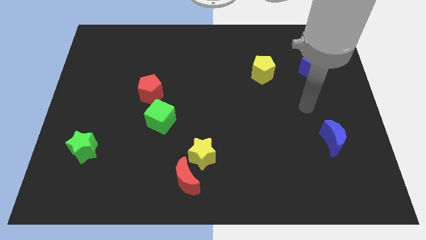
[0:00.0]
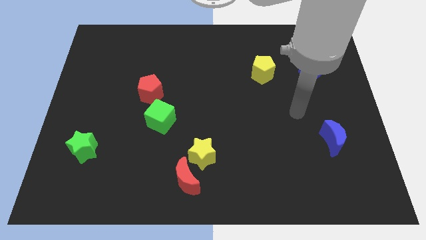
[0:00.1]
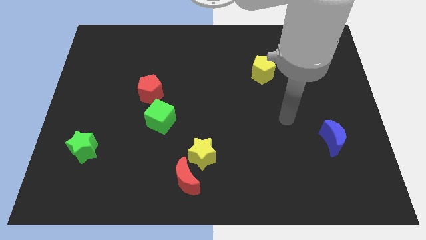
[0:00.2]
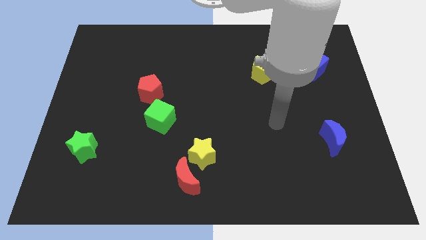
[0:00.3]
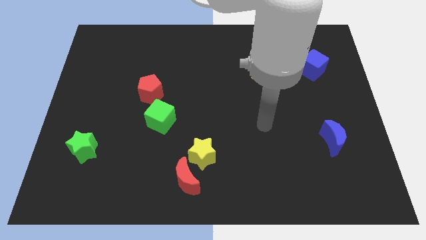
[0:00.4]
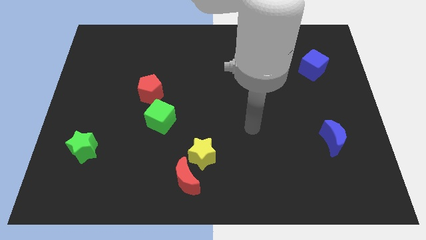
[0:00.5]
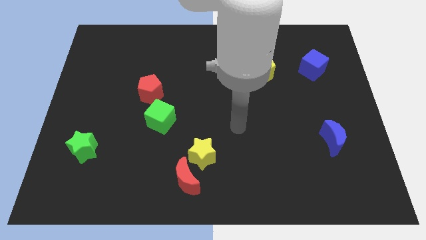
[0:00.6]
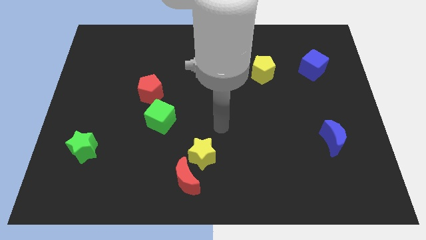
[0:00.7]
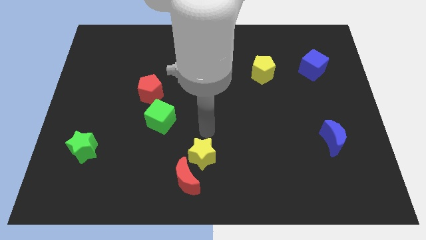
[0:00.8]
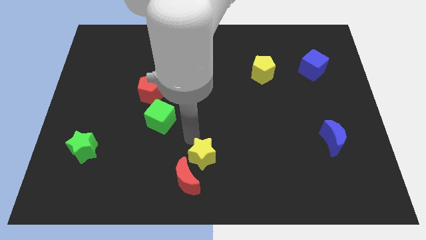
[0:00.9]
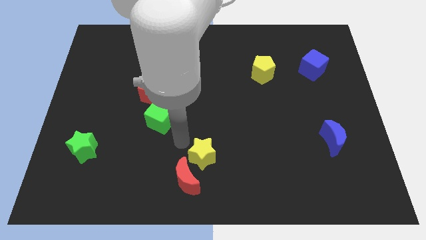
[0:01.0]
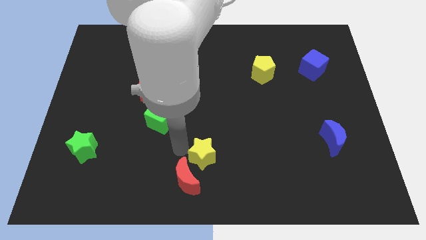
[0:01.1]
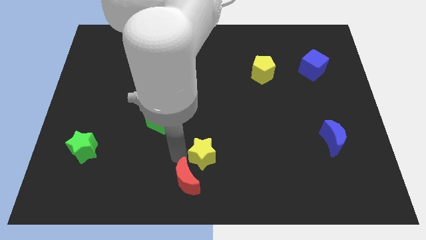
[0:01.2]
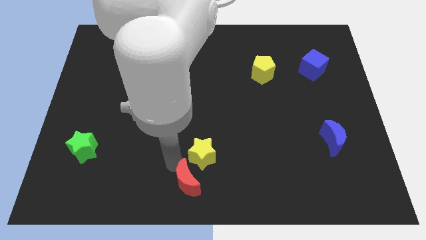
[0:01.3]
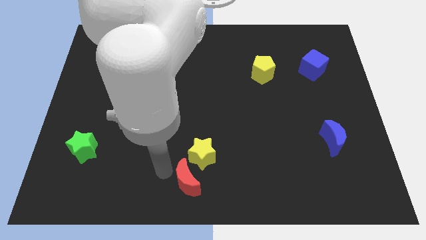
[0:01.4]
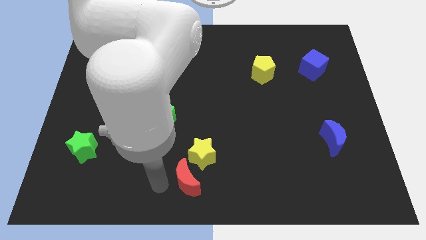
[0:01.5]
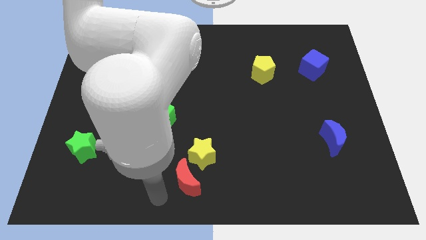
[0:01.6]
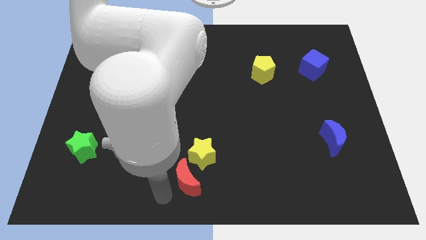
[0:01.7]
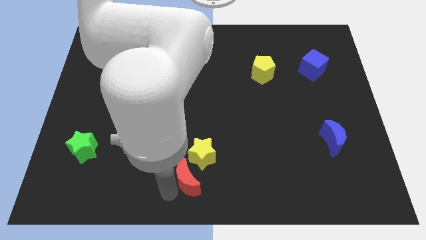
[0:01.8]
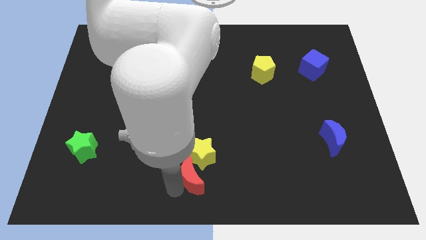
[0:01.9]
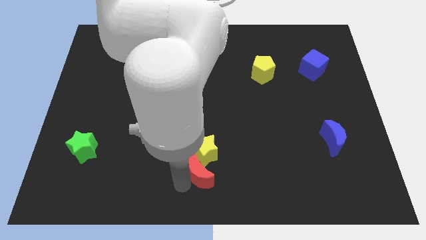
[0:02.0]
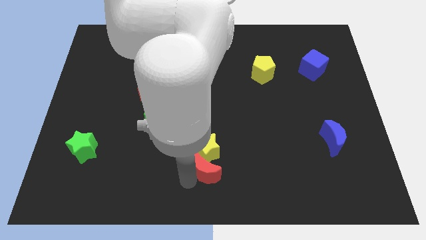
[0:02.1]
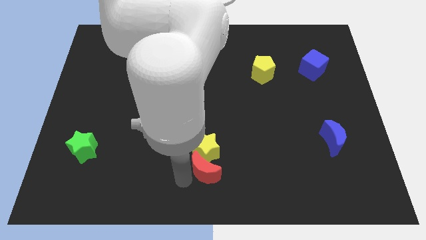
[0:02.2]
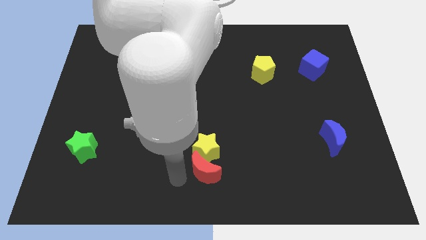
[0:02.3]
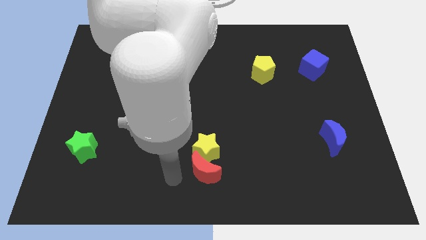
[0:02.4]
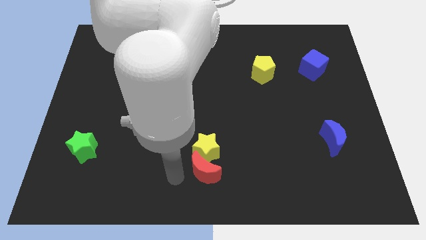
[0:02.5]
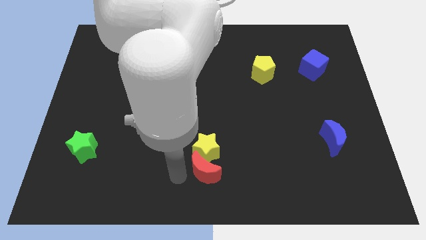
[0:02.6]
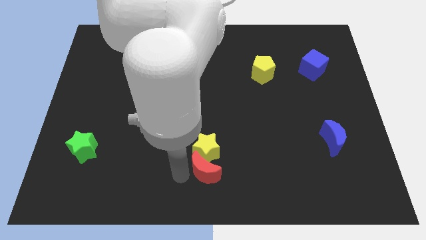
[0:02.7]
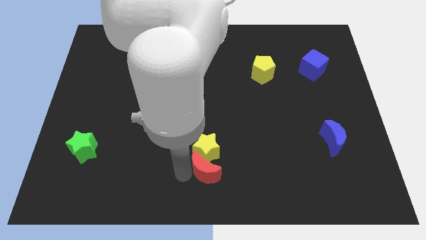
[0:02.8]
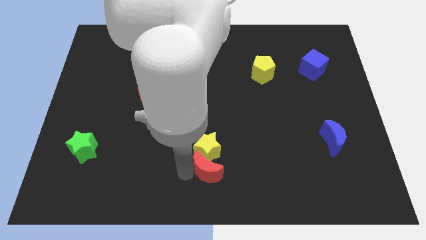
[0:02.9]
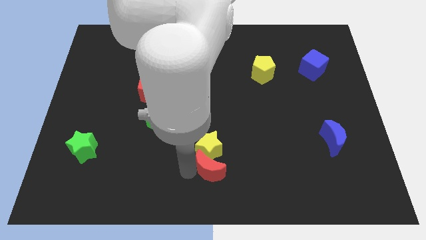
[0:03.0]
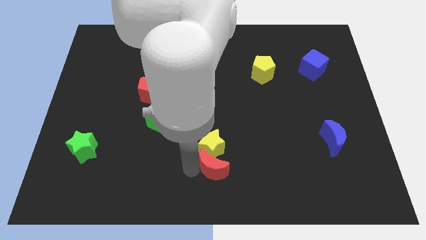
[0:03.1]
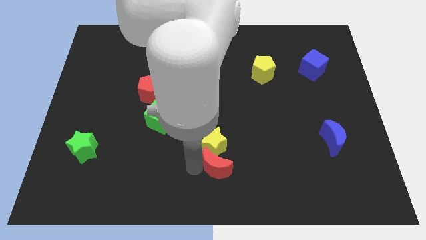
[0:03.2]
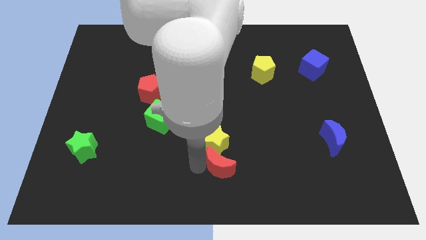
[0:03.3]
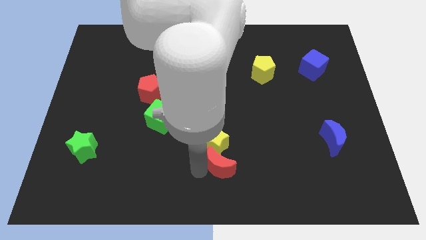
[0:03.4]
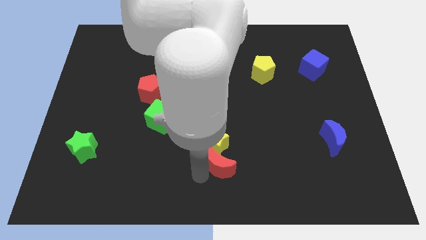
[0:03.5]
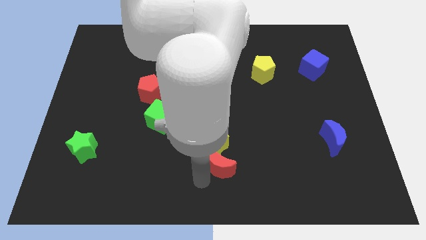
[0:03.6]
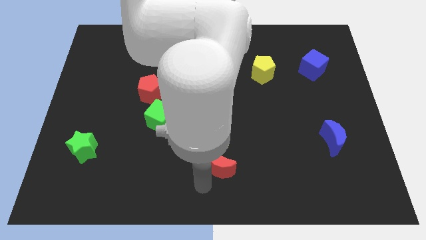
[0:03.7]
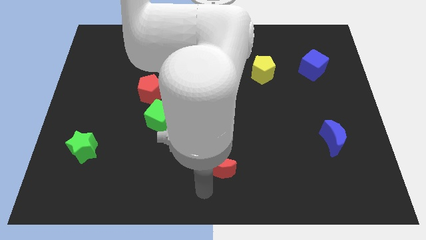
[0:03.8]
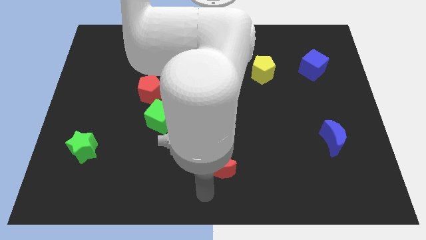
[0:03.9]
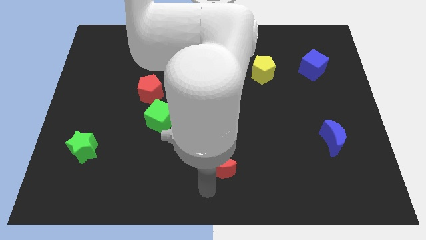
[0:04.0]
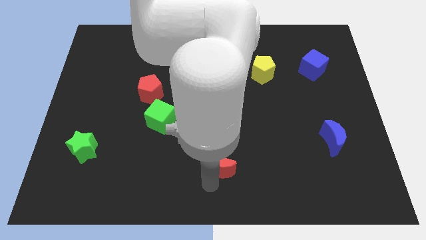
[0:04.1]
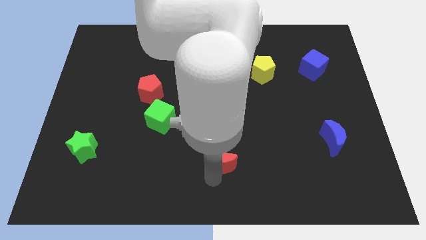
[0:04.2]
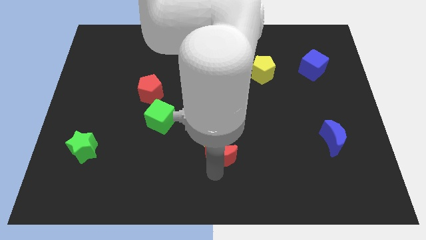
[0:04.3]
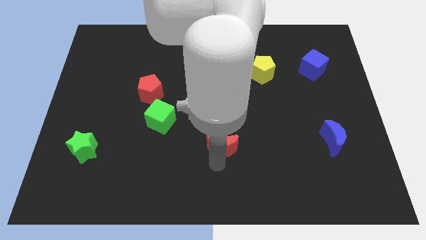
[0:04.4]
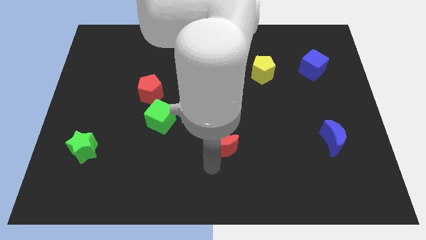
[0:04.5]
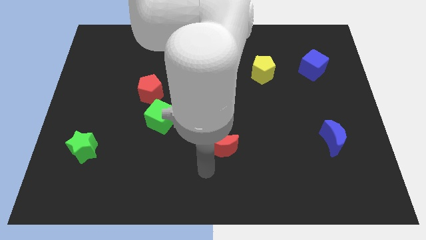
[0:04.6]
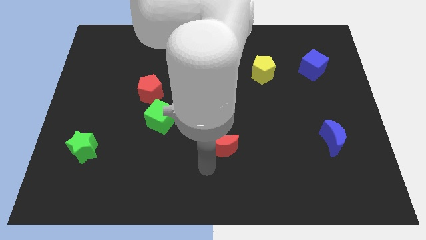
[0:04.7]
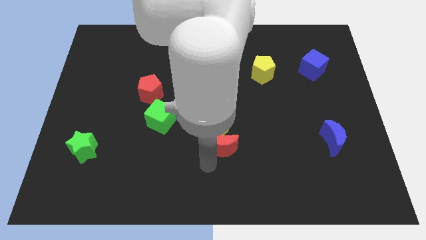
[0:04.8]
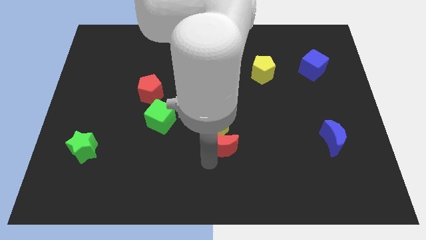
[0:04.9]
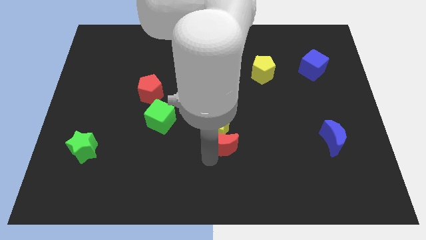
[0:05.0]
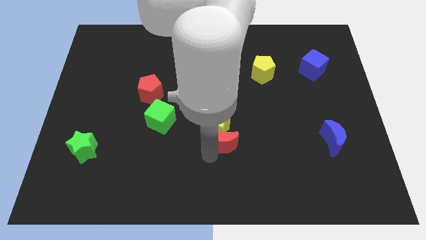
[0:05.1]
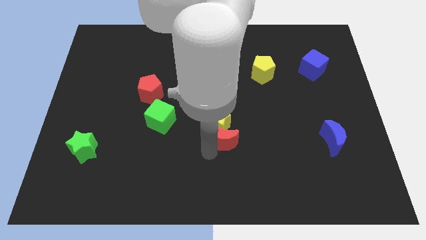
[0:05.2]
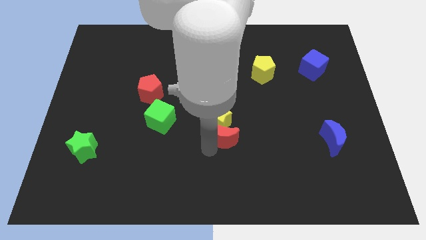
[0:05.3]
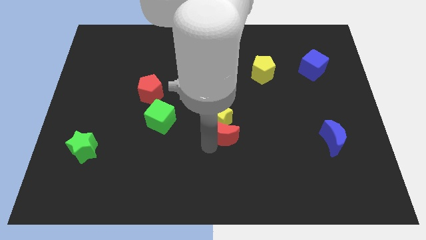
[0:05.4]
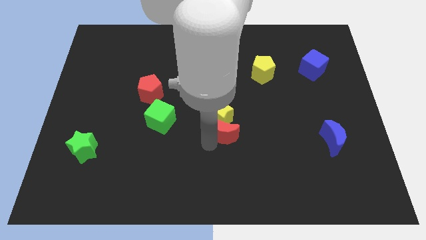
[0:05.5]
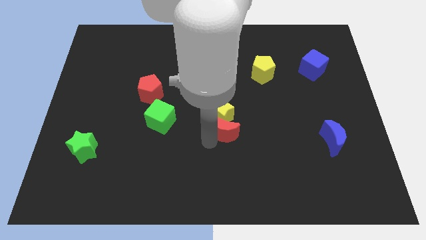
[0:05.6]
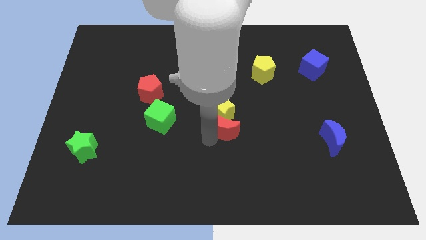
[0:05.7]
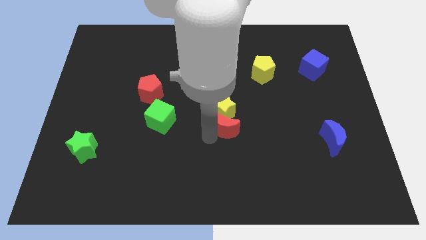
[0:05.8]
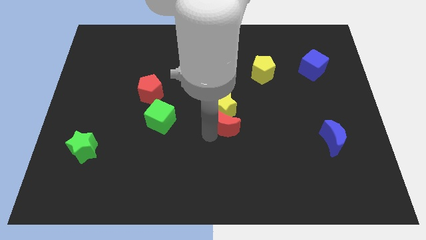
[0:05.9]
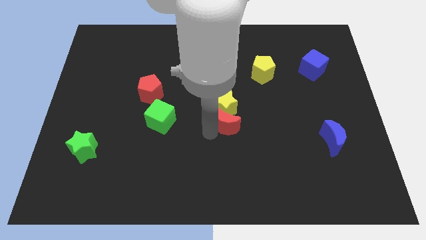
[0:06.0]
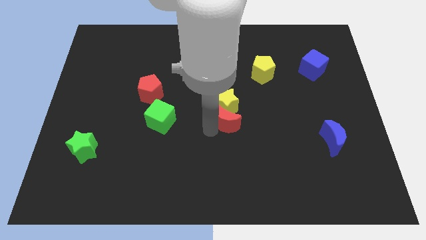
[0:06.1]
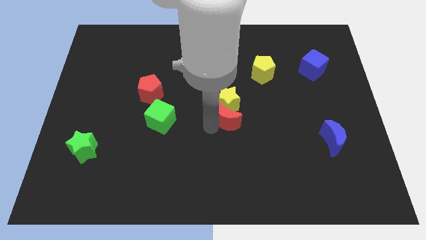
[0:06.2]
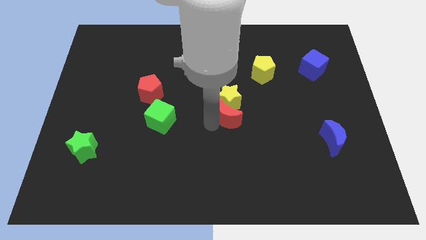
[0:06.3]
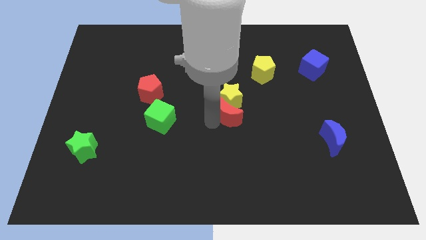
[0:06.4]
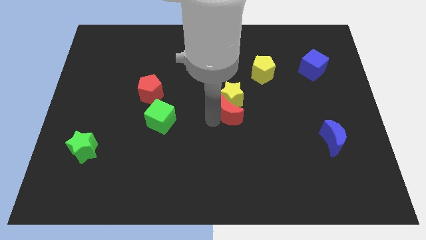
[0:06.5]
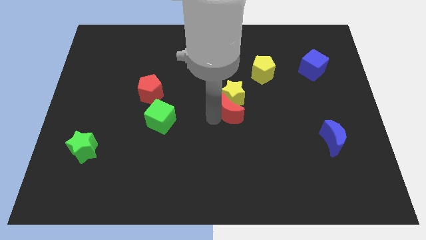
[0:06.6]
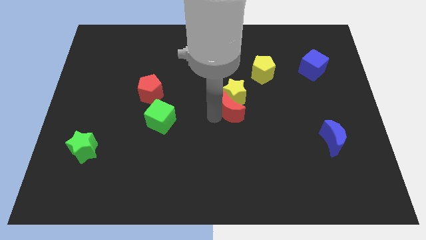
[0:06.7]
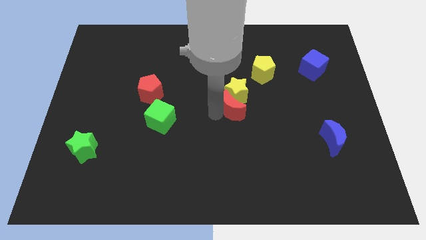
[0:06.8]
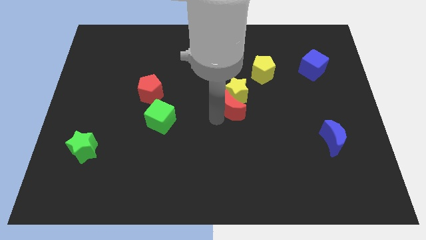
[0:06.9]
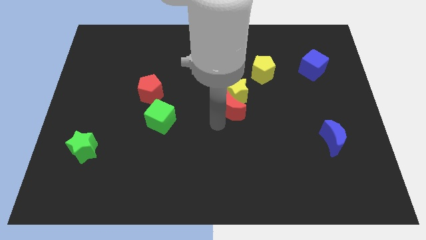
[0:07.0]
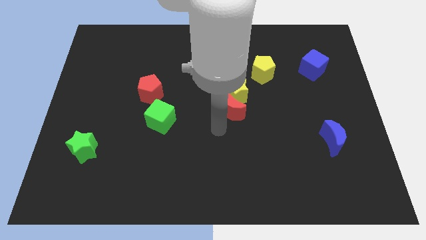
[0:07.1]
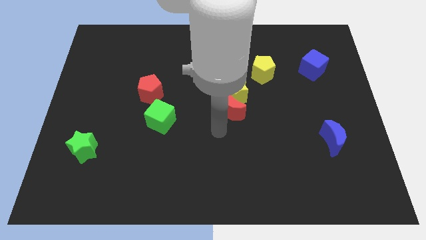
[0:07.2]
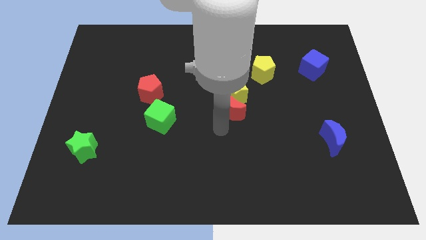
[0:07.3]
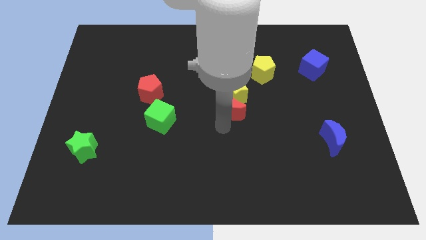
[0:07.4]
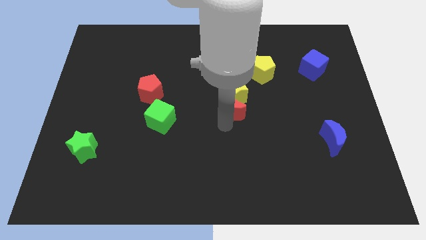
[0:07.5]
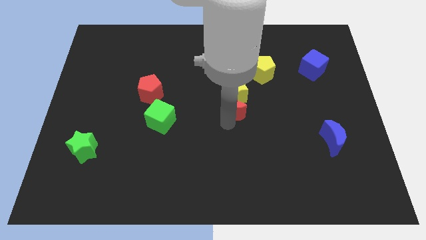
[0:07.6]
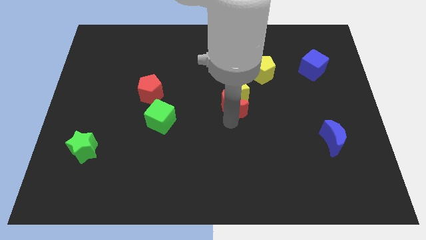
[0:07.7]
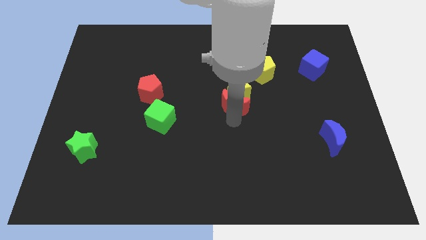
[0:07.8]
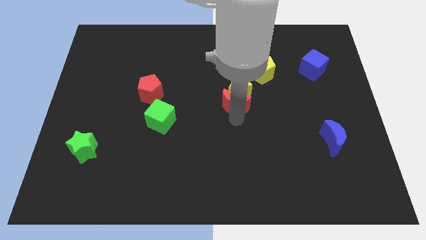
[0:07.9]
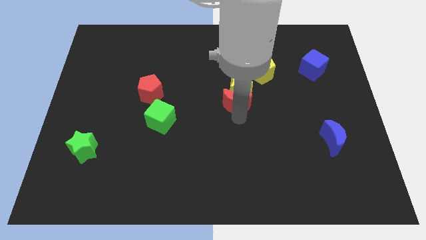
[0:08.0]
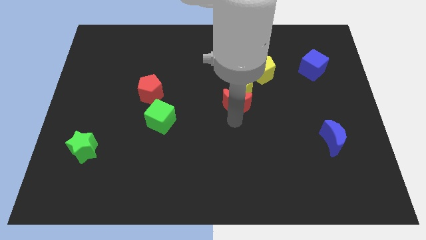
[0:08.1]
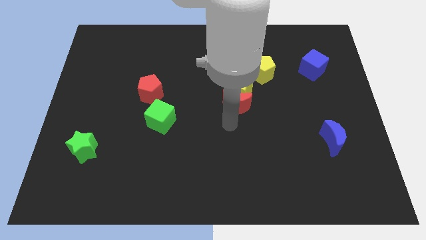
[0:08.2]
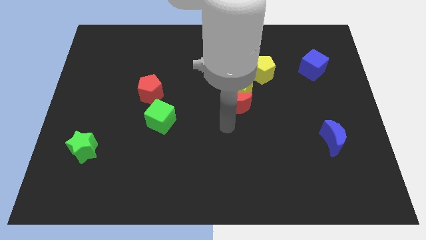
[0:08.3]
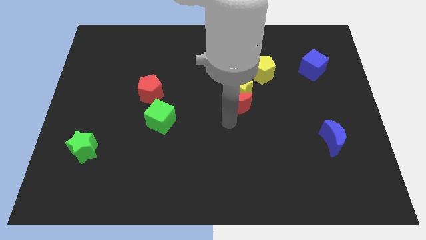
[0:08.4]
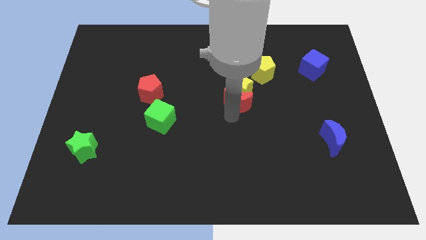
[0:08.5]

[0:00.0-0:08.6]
slide the red moon diagonally down and to the left of the yellow pentagon
